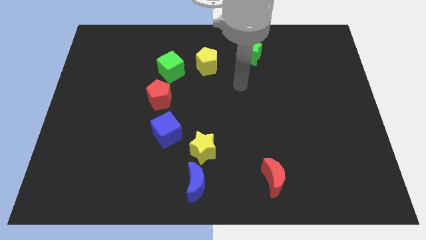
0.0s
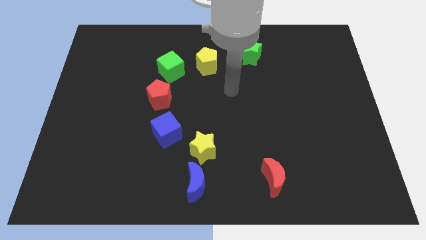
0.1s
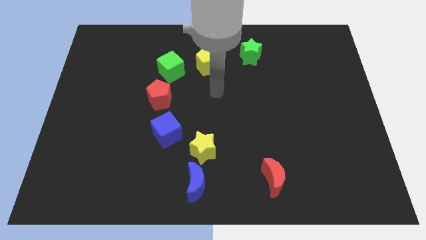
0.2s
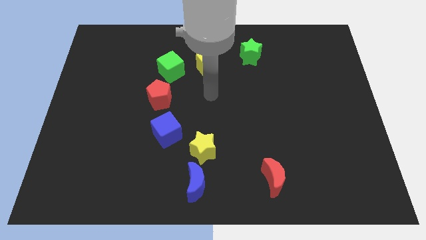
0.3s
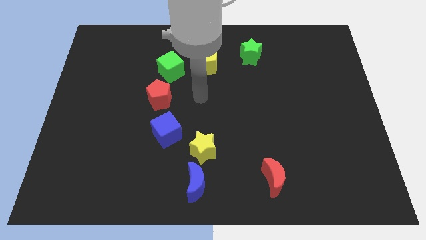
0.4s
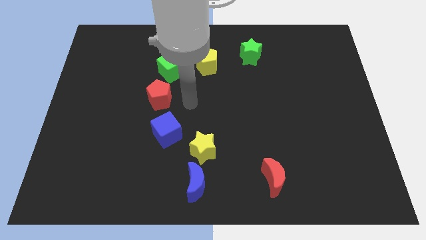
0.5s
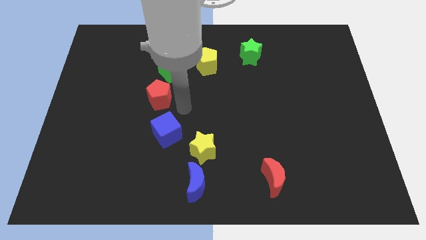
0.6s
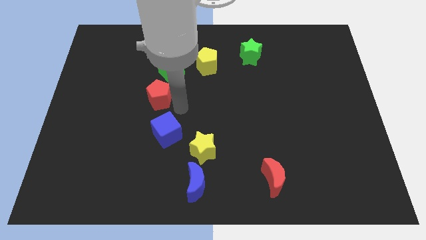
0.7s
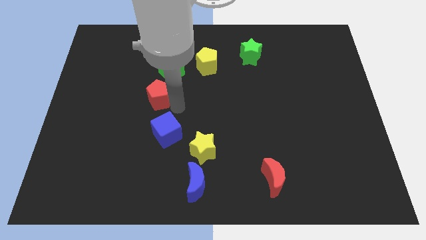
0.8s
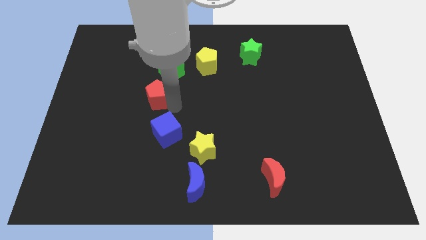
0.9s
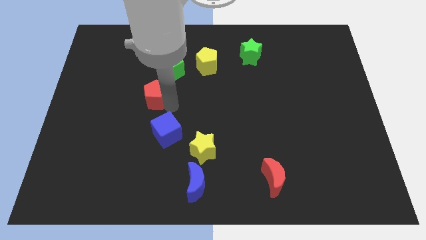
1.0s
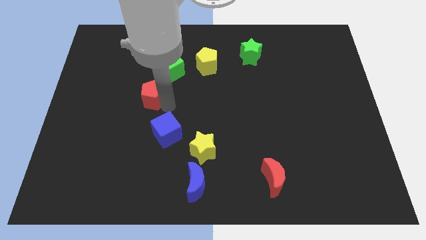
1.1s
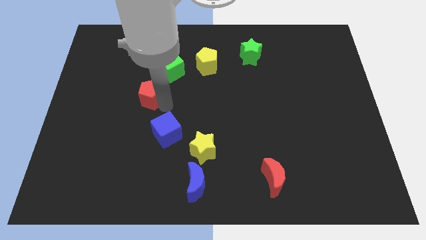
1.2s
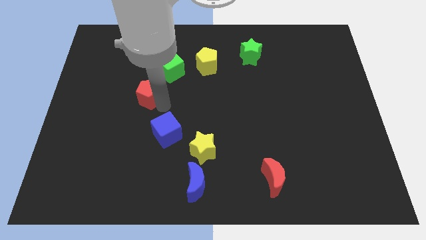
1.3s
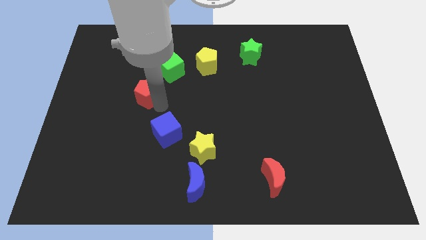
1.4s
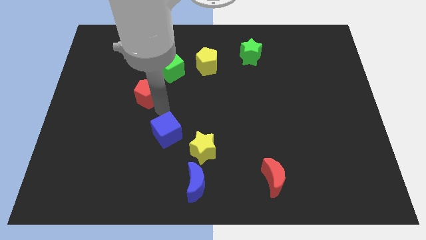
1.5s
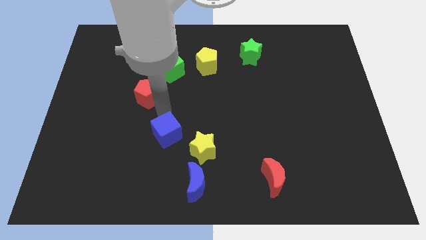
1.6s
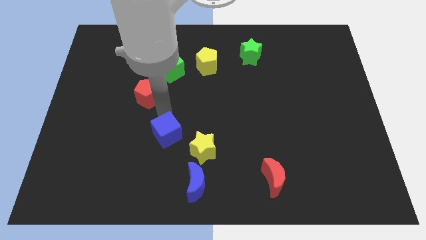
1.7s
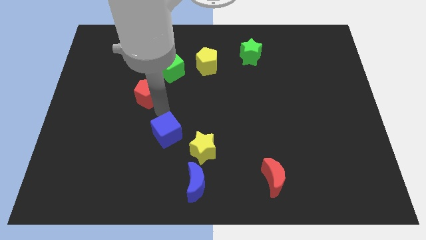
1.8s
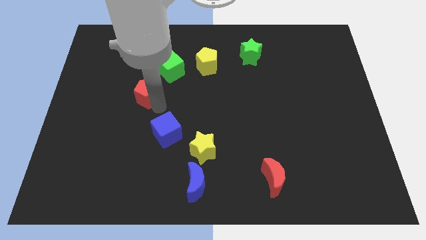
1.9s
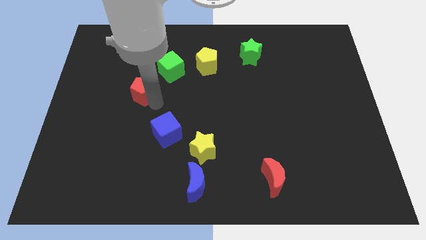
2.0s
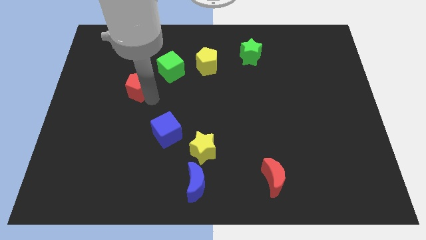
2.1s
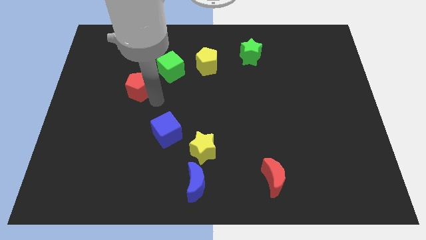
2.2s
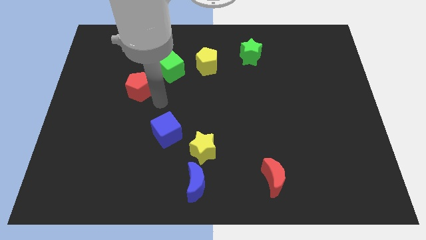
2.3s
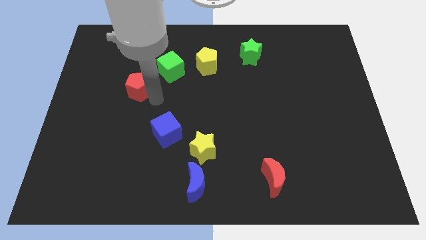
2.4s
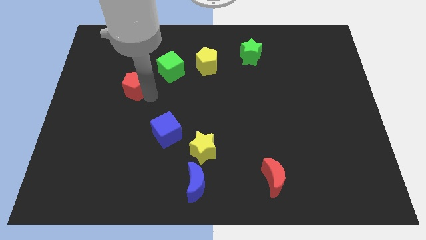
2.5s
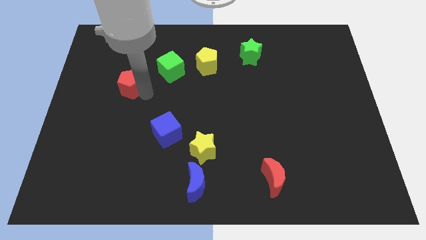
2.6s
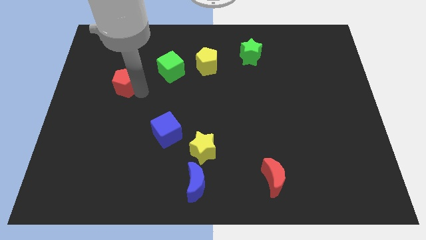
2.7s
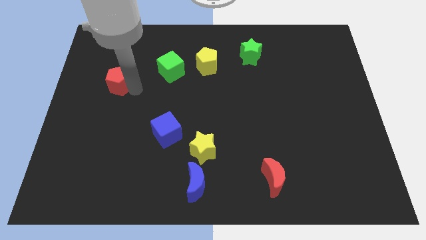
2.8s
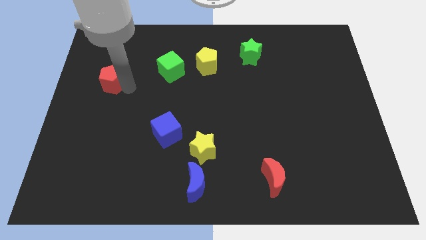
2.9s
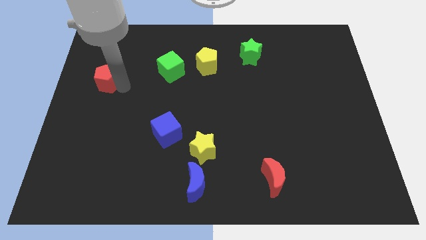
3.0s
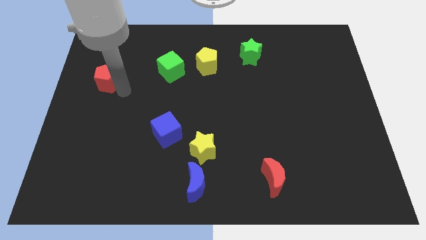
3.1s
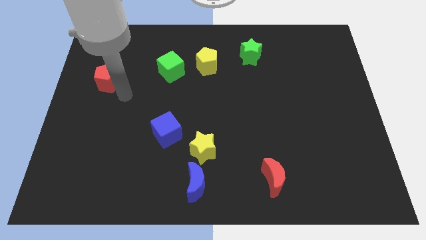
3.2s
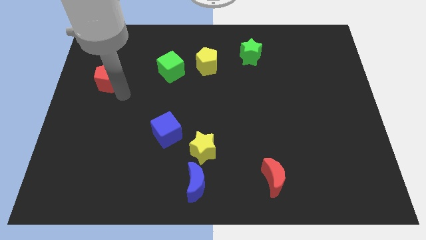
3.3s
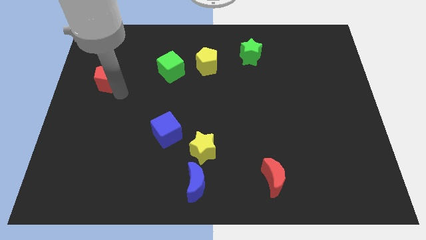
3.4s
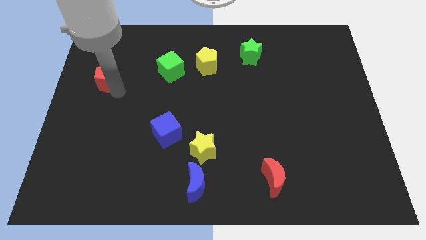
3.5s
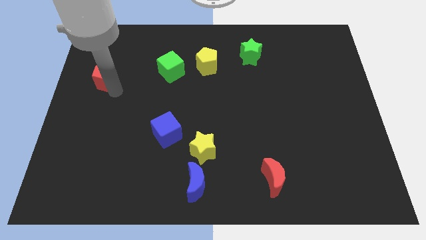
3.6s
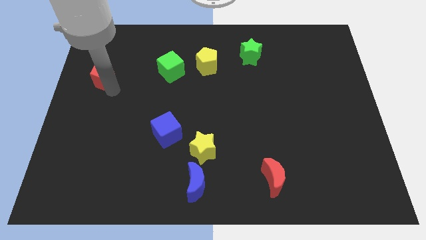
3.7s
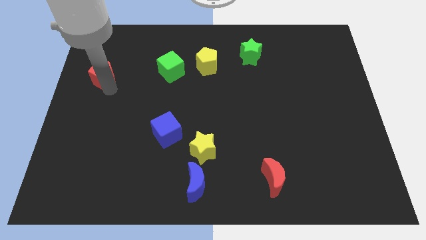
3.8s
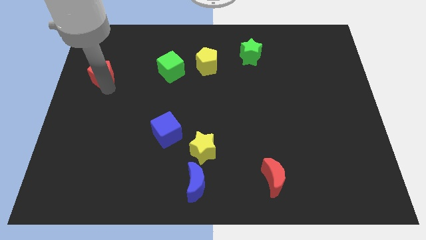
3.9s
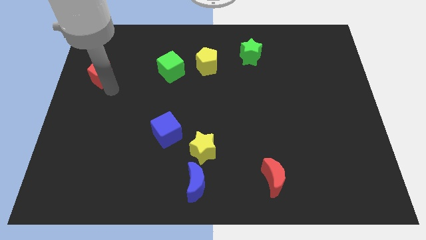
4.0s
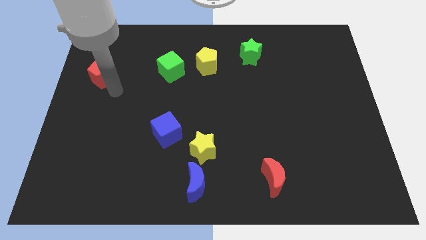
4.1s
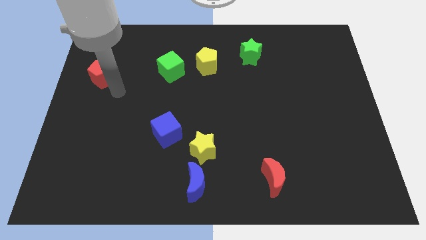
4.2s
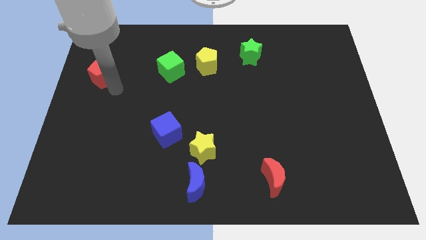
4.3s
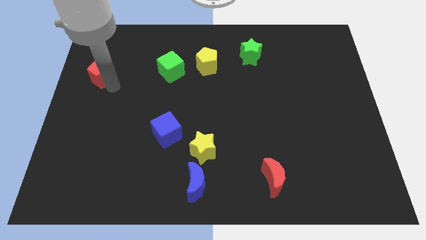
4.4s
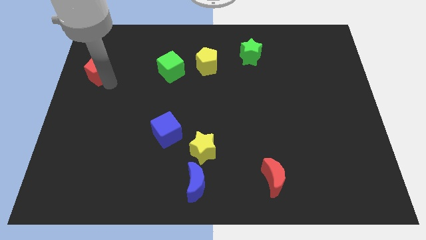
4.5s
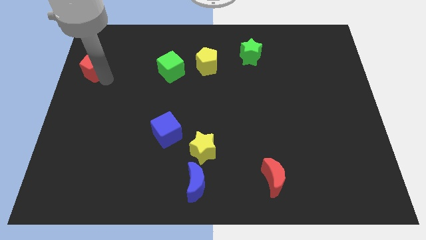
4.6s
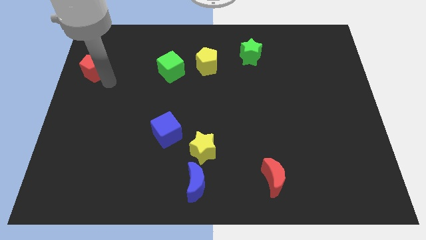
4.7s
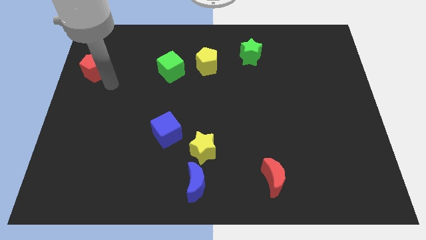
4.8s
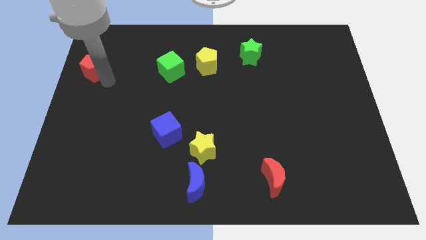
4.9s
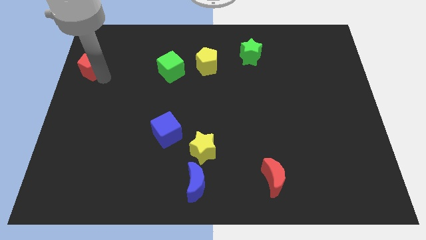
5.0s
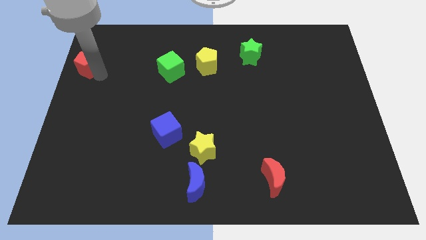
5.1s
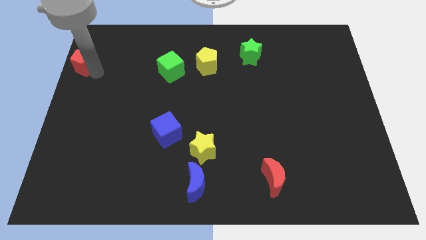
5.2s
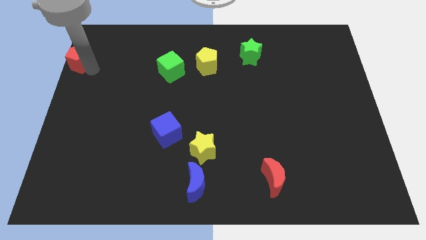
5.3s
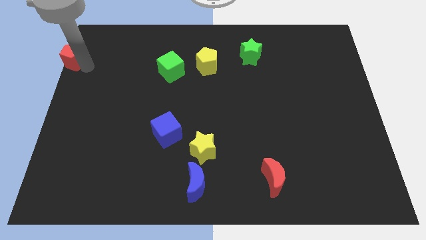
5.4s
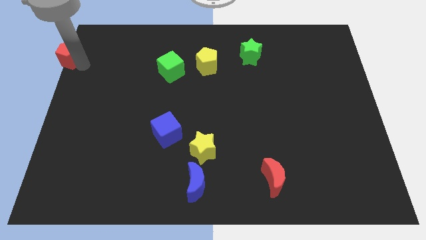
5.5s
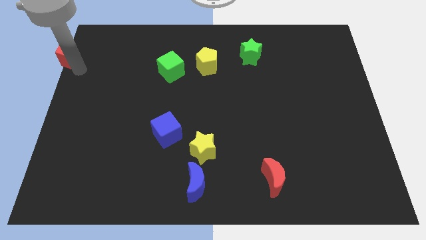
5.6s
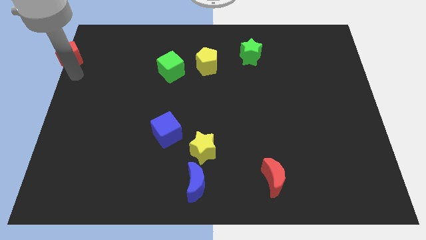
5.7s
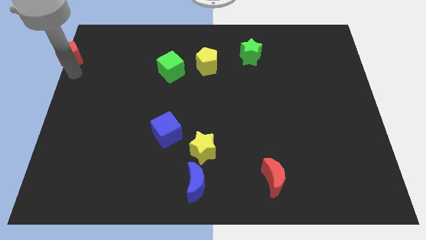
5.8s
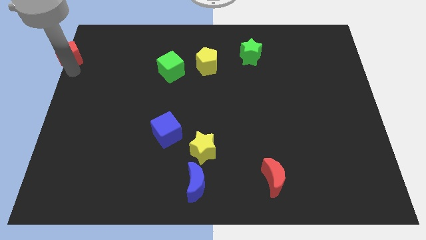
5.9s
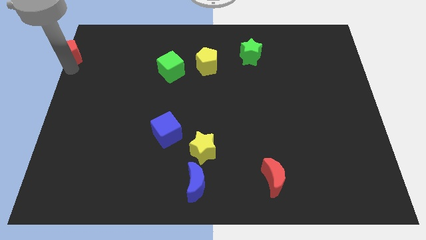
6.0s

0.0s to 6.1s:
put the red pentagon to the upper left corner
